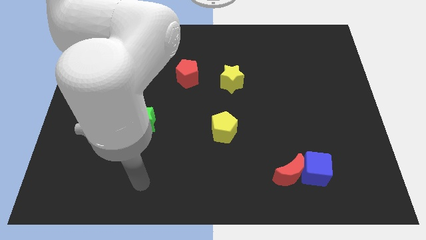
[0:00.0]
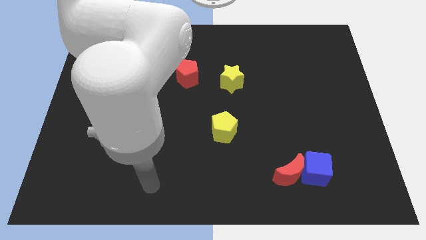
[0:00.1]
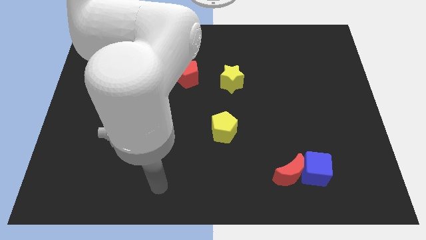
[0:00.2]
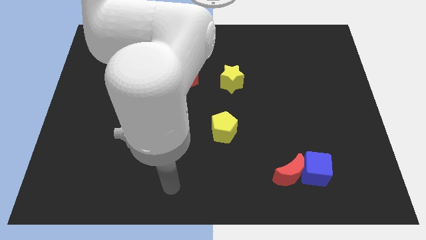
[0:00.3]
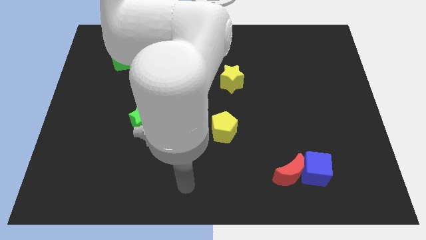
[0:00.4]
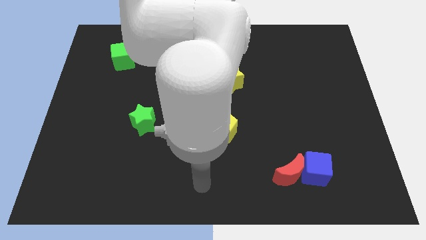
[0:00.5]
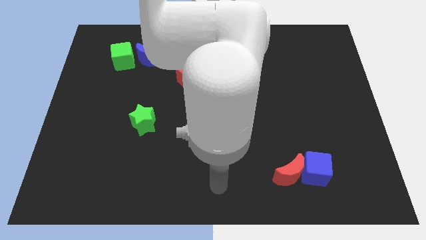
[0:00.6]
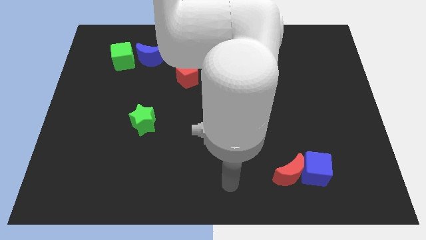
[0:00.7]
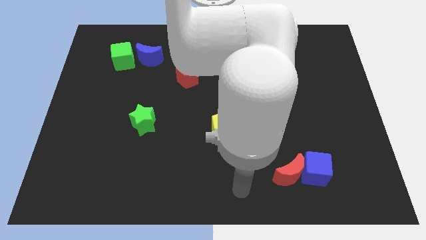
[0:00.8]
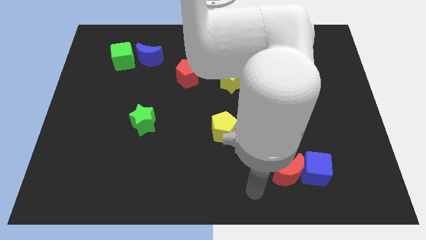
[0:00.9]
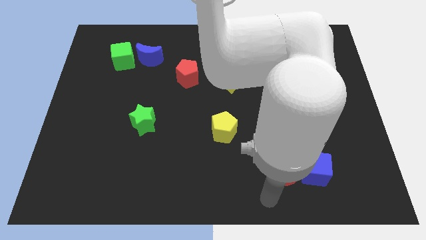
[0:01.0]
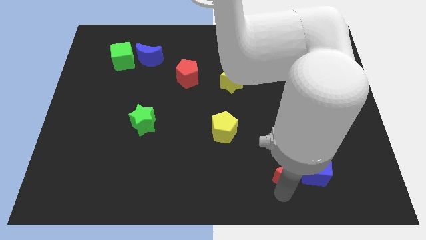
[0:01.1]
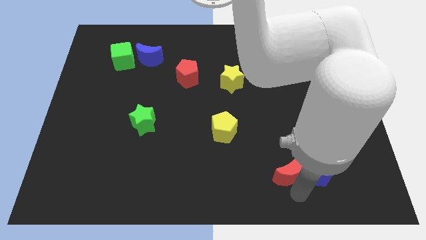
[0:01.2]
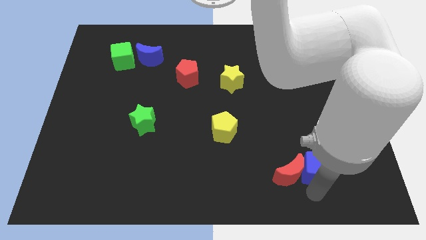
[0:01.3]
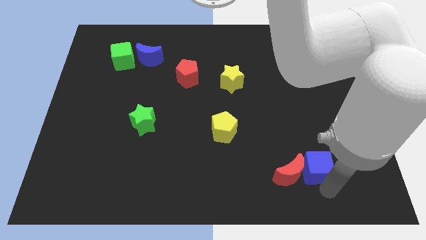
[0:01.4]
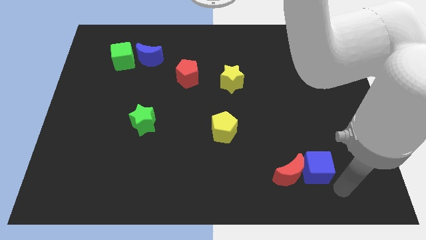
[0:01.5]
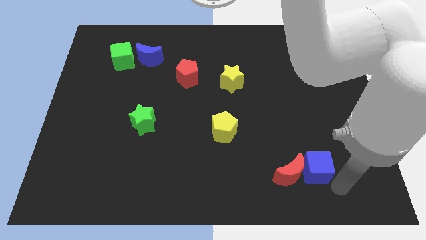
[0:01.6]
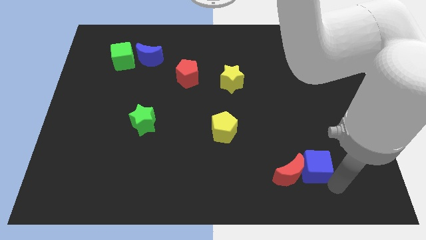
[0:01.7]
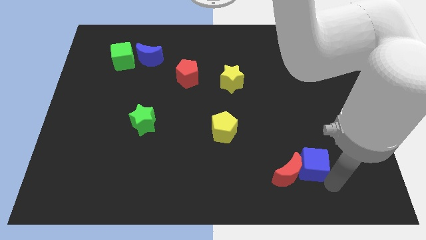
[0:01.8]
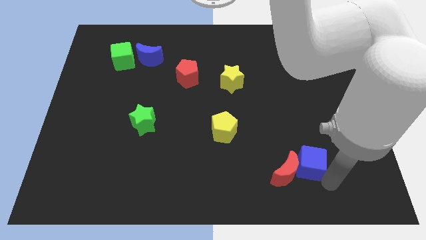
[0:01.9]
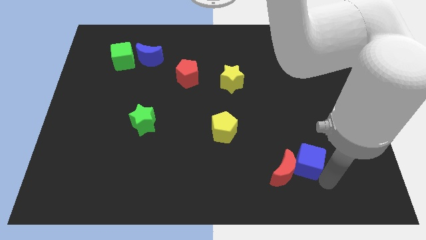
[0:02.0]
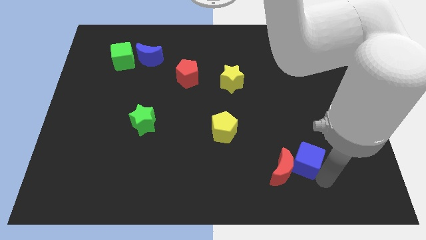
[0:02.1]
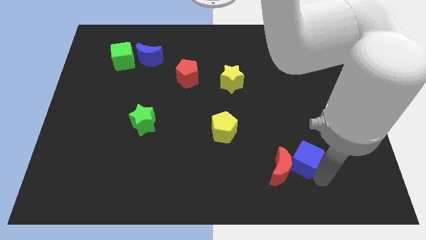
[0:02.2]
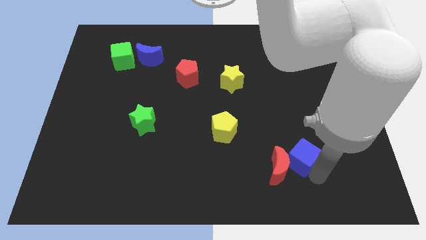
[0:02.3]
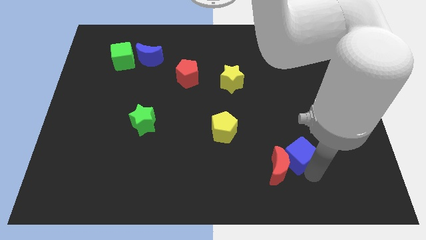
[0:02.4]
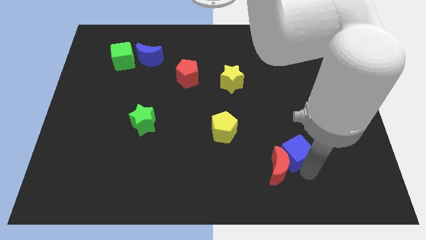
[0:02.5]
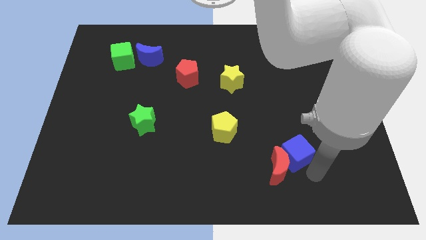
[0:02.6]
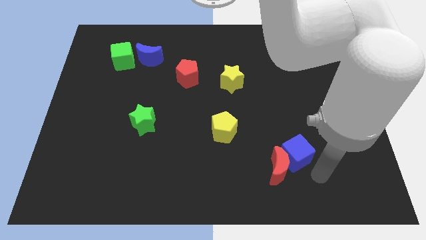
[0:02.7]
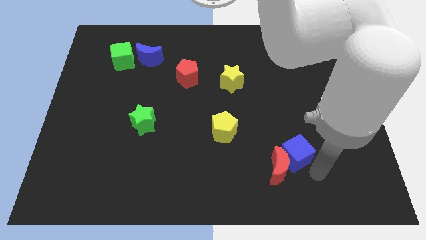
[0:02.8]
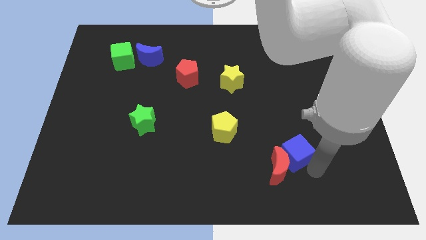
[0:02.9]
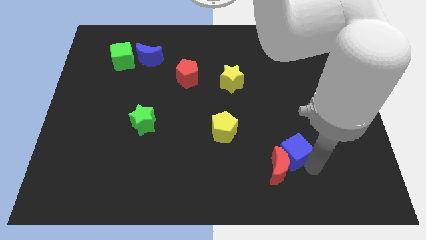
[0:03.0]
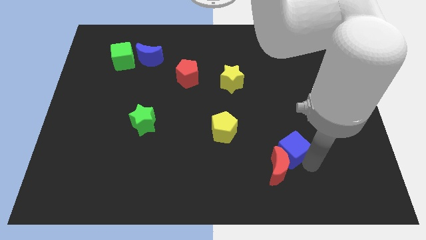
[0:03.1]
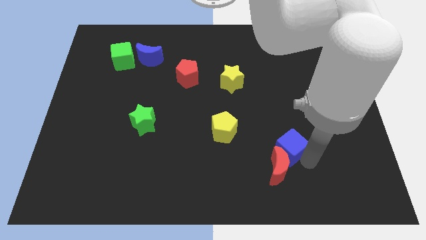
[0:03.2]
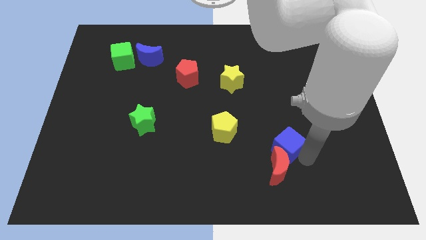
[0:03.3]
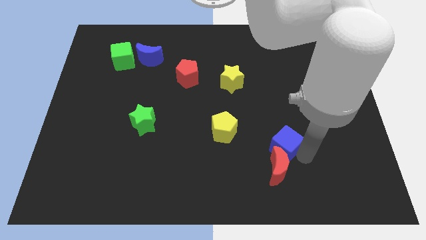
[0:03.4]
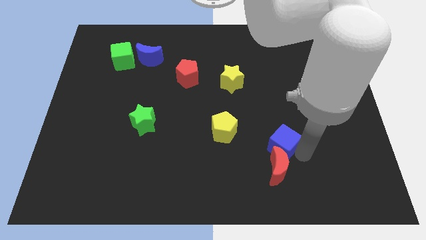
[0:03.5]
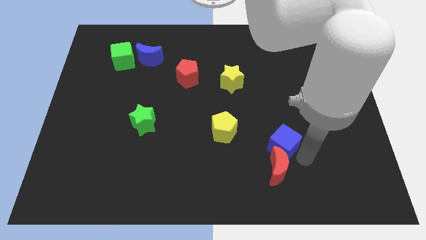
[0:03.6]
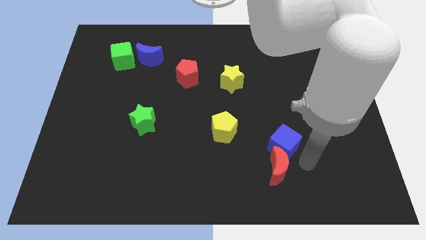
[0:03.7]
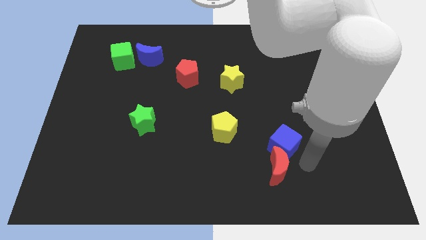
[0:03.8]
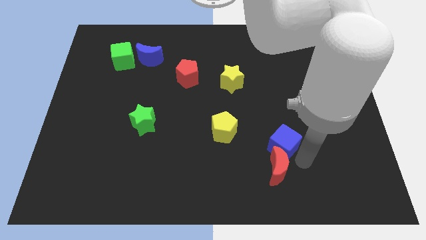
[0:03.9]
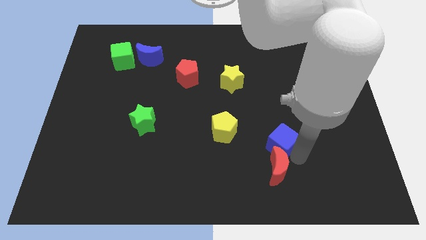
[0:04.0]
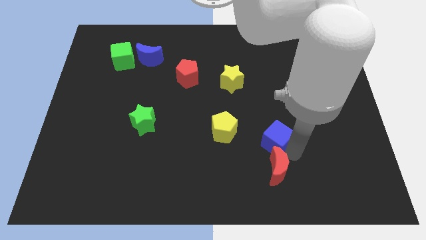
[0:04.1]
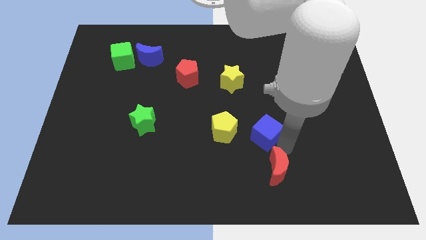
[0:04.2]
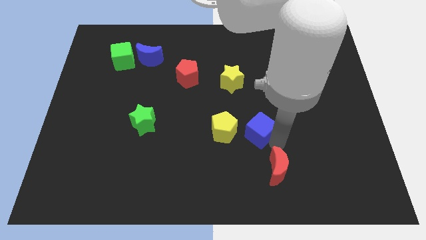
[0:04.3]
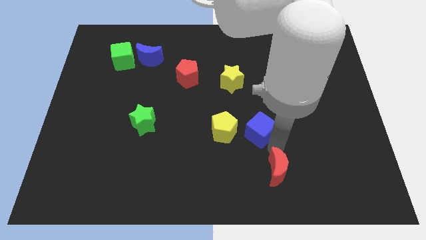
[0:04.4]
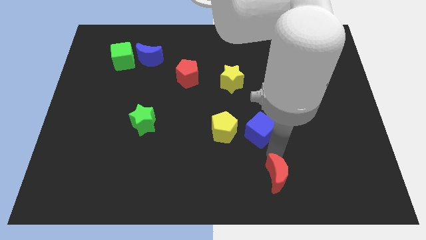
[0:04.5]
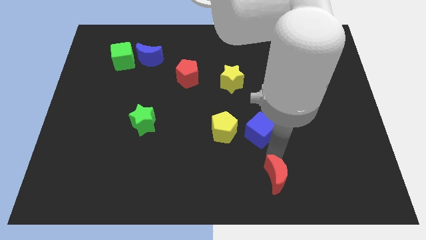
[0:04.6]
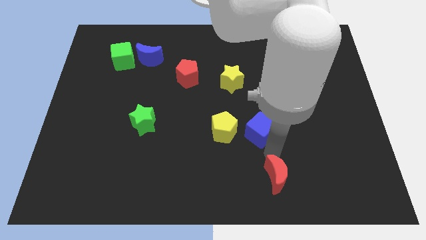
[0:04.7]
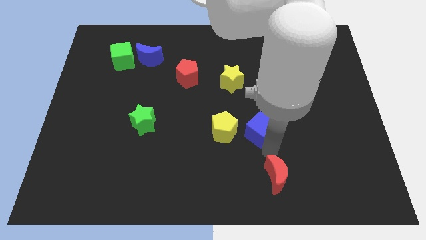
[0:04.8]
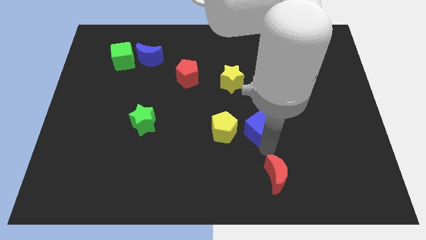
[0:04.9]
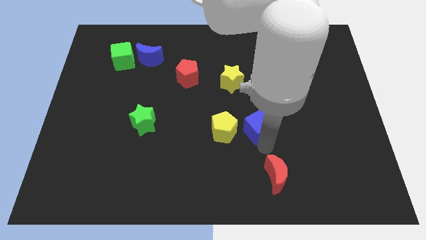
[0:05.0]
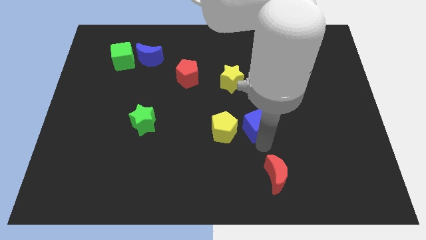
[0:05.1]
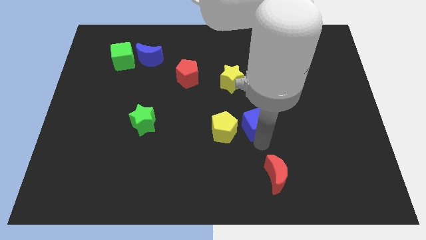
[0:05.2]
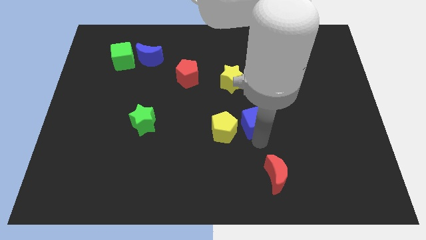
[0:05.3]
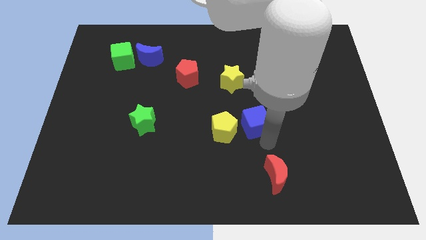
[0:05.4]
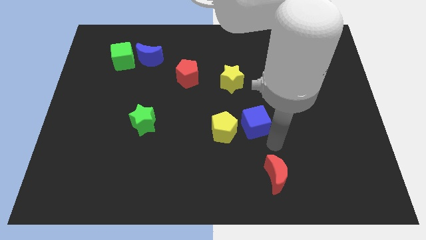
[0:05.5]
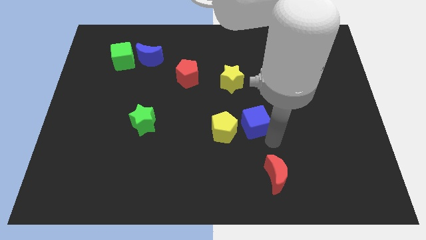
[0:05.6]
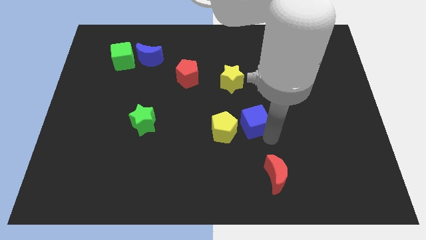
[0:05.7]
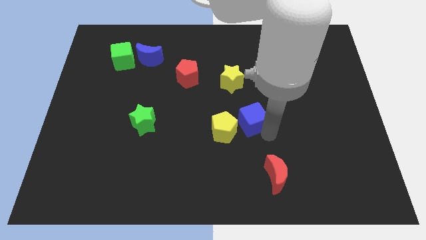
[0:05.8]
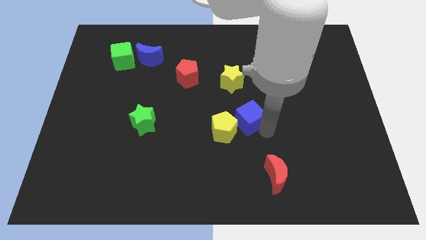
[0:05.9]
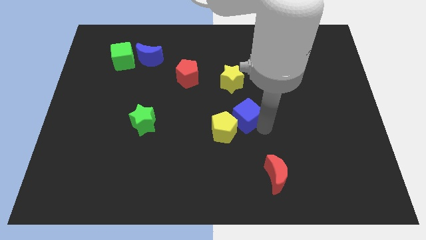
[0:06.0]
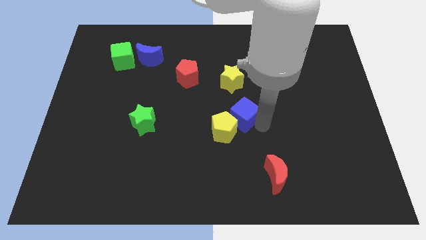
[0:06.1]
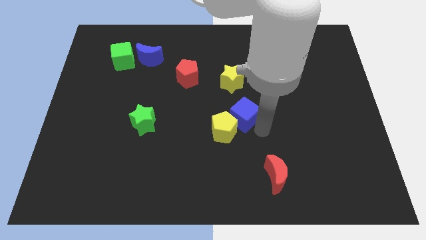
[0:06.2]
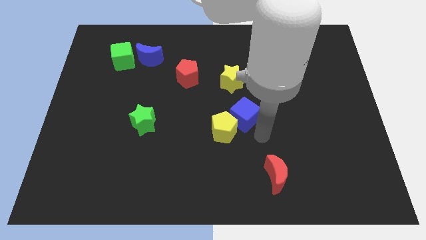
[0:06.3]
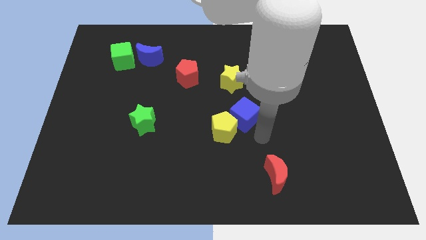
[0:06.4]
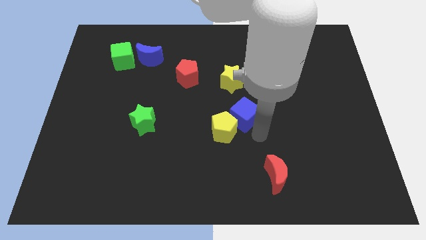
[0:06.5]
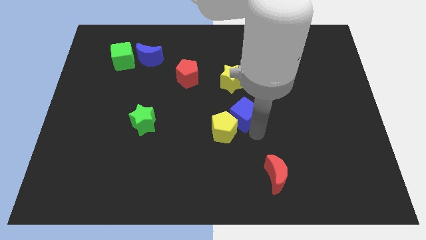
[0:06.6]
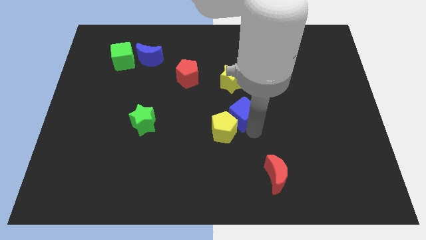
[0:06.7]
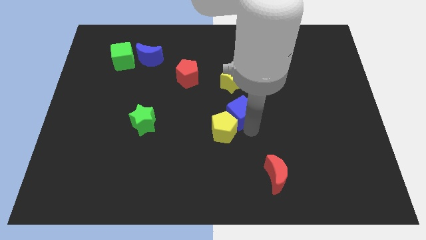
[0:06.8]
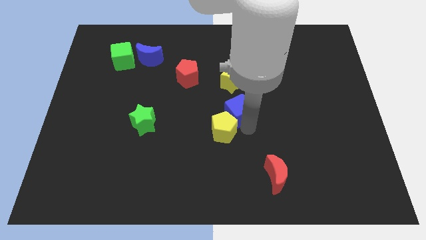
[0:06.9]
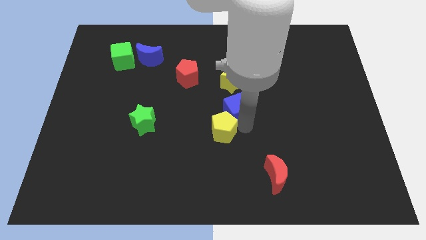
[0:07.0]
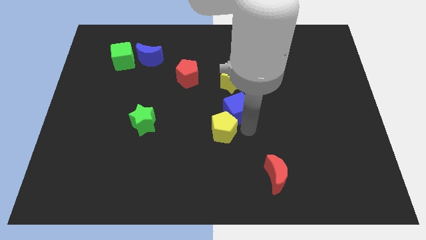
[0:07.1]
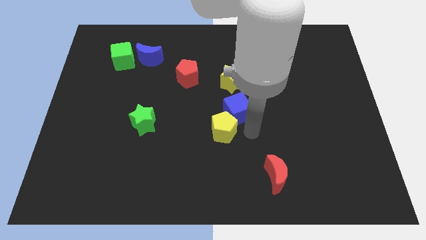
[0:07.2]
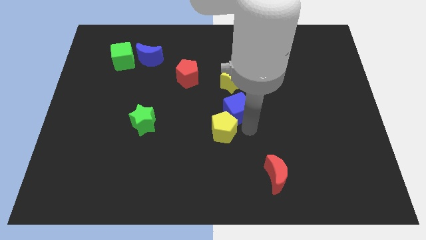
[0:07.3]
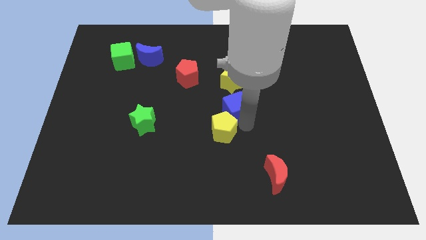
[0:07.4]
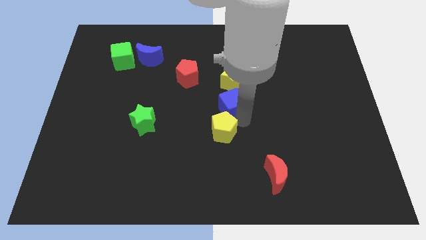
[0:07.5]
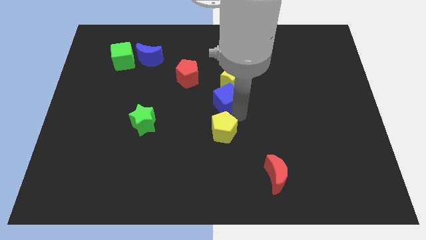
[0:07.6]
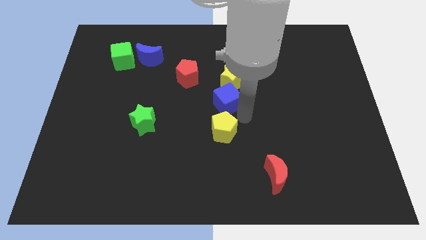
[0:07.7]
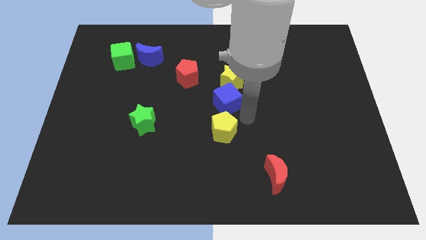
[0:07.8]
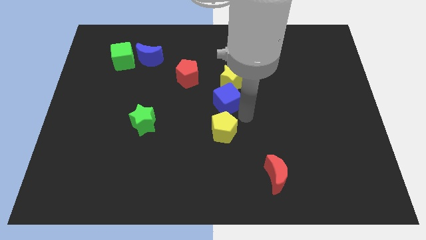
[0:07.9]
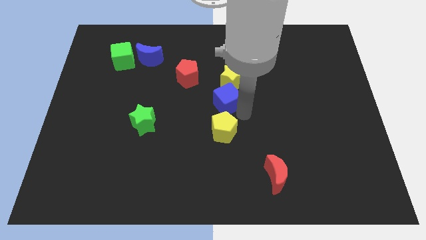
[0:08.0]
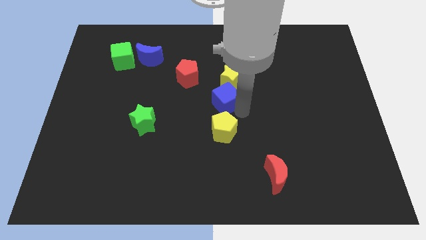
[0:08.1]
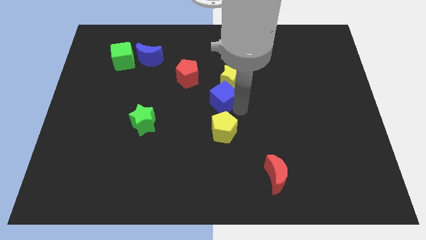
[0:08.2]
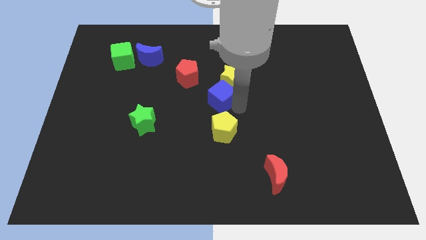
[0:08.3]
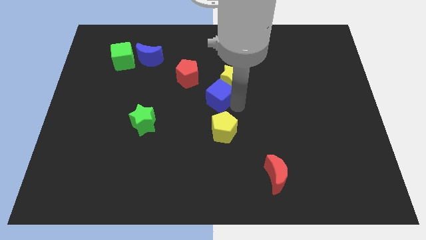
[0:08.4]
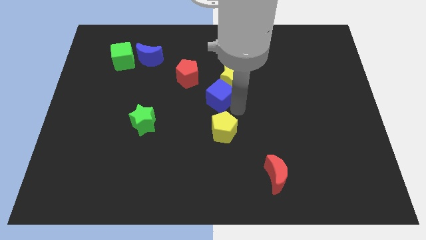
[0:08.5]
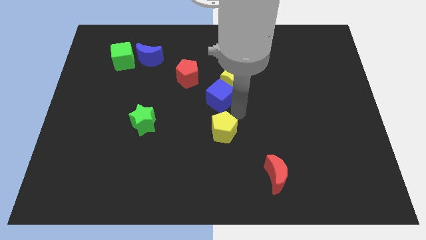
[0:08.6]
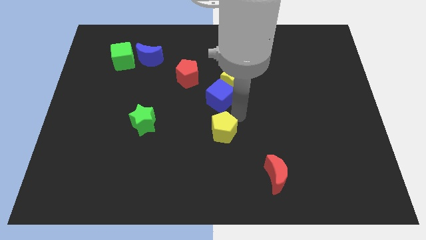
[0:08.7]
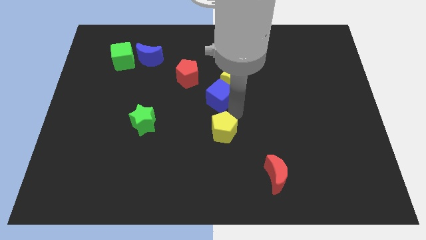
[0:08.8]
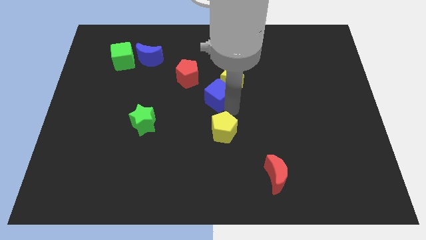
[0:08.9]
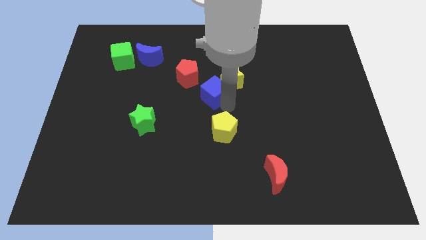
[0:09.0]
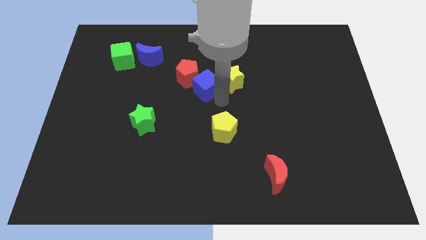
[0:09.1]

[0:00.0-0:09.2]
push the blue cube towards the red pentagon
